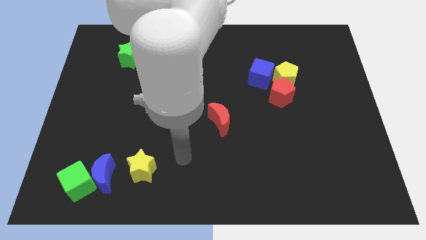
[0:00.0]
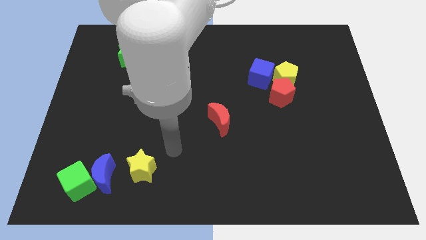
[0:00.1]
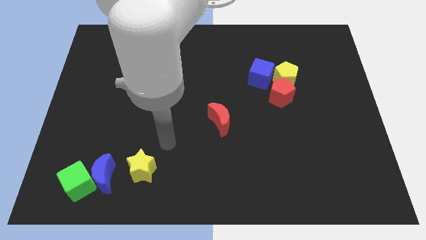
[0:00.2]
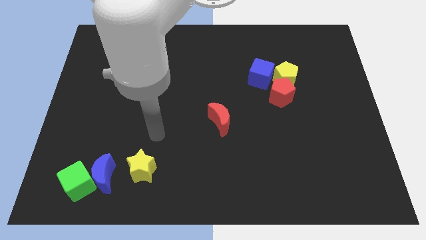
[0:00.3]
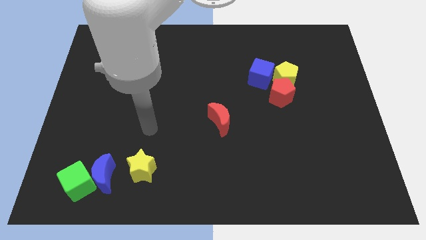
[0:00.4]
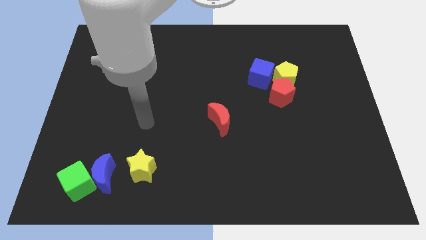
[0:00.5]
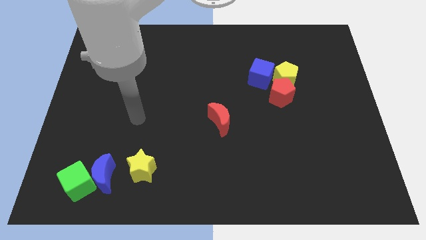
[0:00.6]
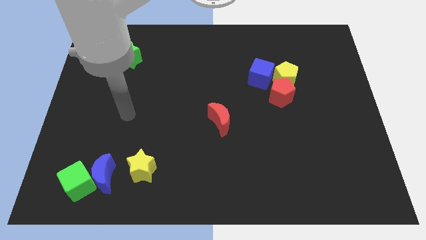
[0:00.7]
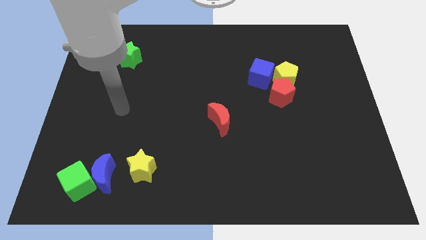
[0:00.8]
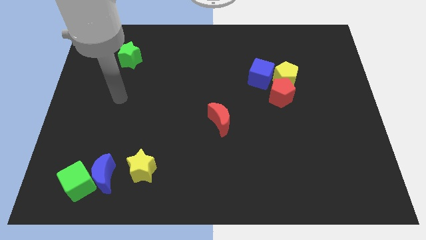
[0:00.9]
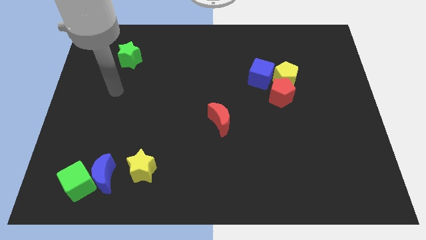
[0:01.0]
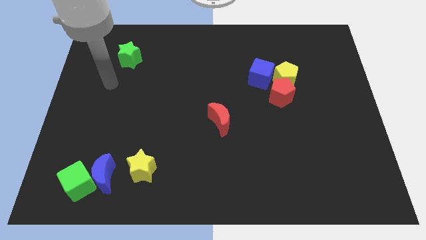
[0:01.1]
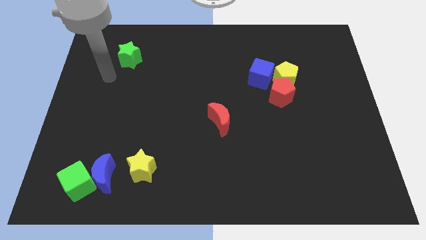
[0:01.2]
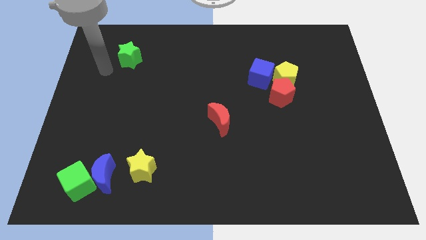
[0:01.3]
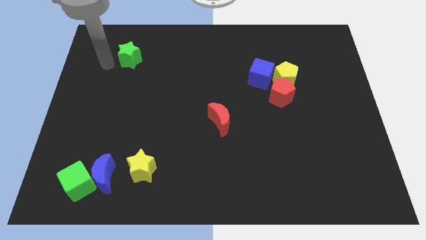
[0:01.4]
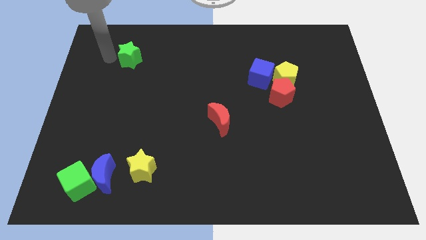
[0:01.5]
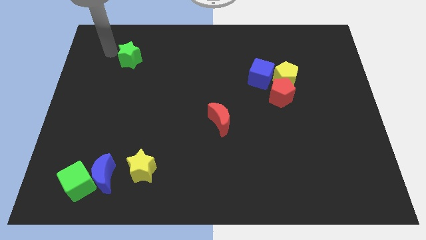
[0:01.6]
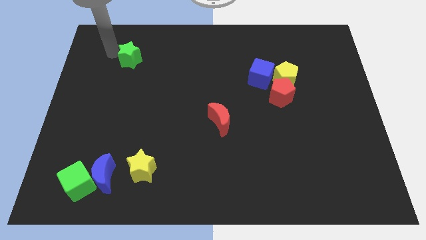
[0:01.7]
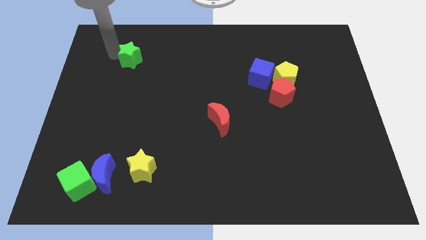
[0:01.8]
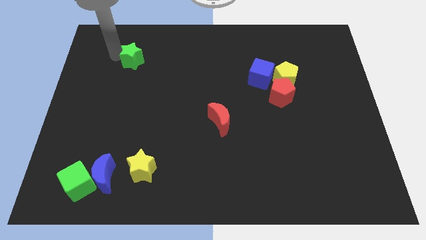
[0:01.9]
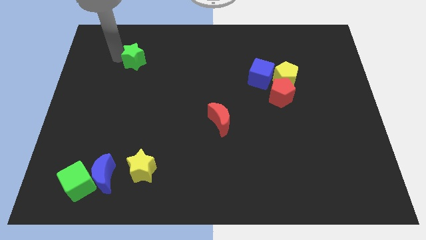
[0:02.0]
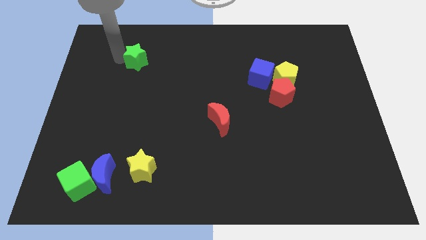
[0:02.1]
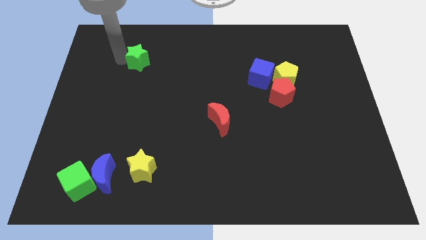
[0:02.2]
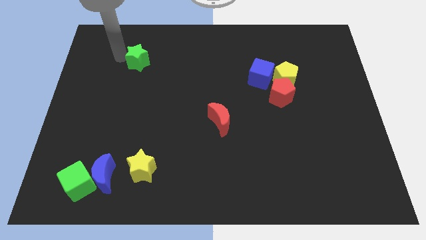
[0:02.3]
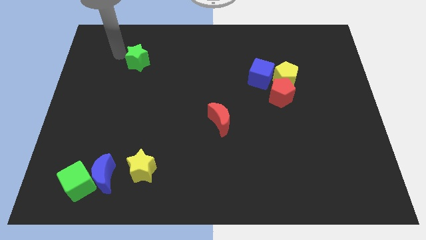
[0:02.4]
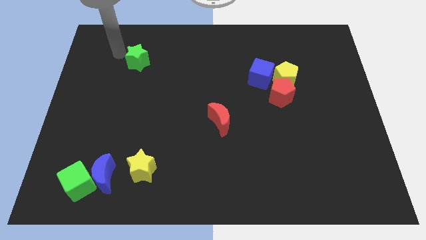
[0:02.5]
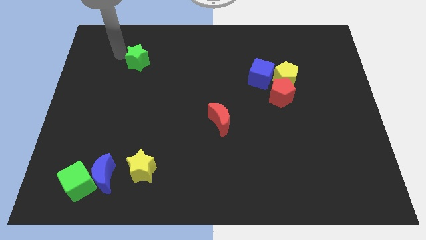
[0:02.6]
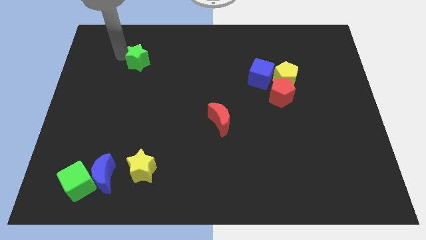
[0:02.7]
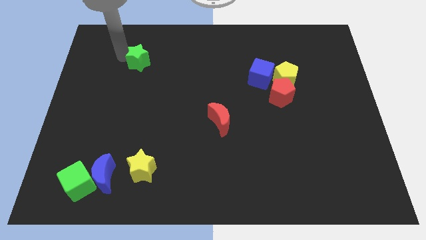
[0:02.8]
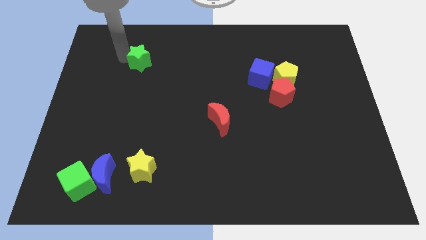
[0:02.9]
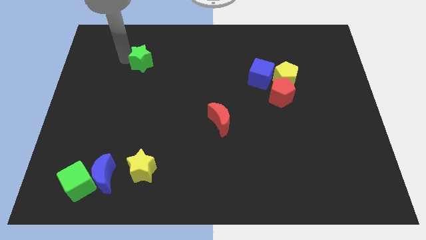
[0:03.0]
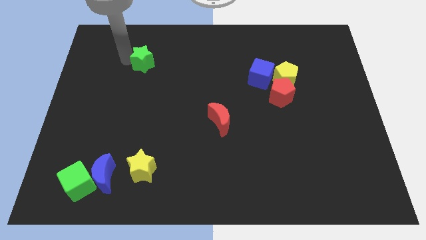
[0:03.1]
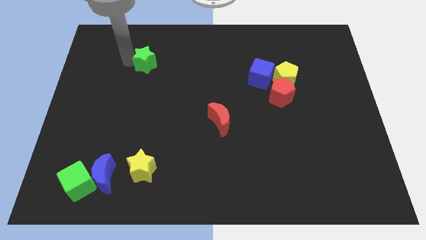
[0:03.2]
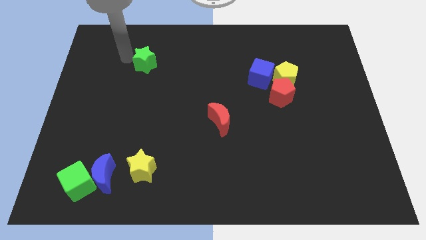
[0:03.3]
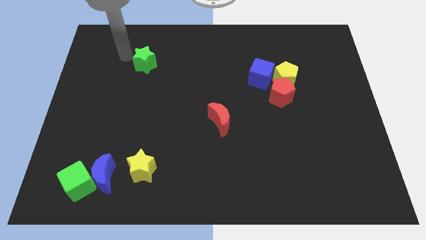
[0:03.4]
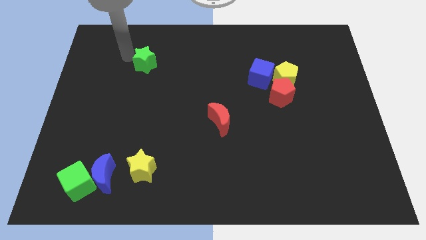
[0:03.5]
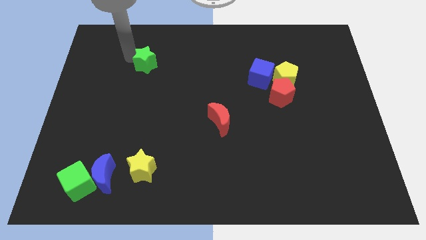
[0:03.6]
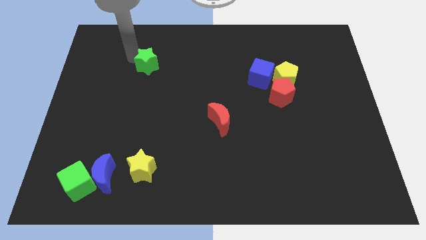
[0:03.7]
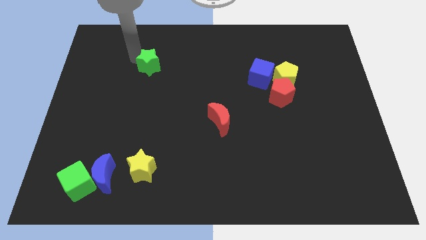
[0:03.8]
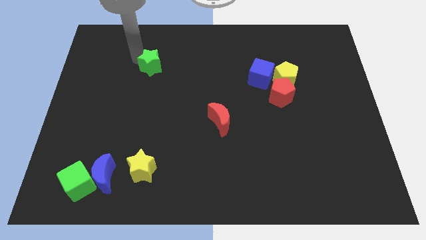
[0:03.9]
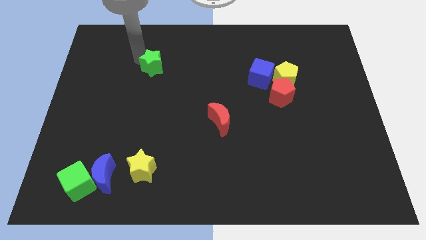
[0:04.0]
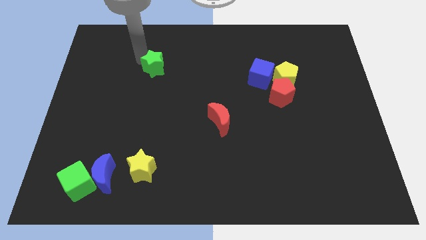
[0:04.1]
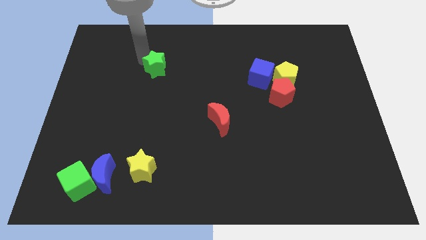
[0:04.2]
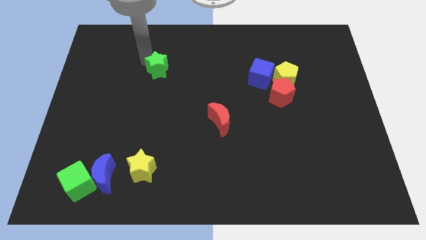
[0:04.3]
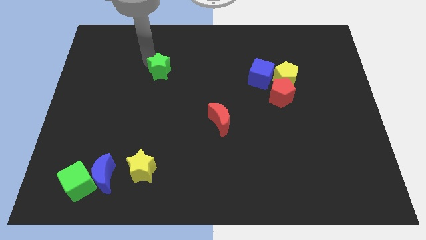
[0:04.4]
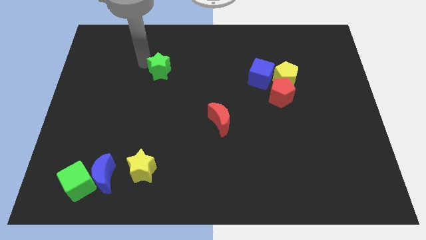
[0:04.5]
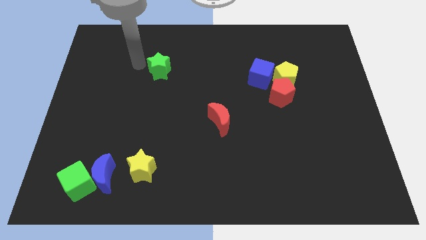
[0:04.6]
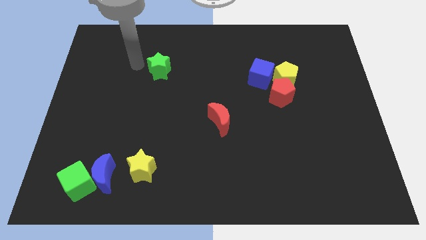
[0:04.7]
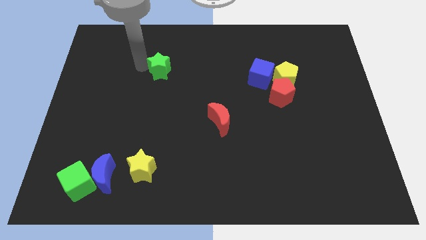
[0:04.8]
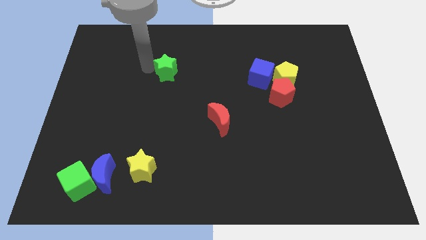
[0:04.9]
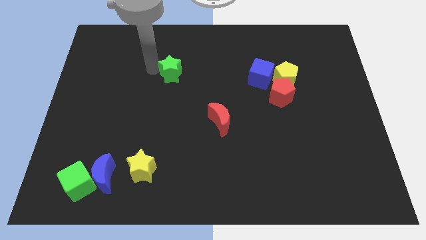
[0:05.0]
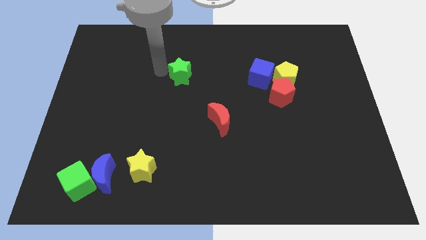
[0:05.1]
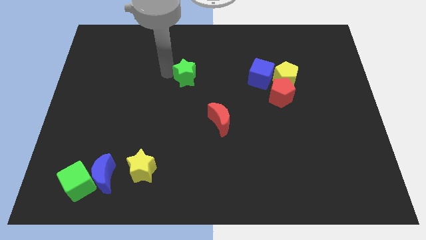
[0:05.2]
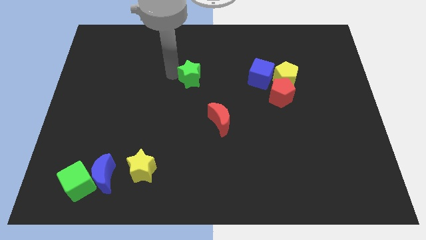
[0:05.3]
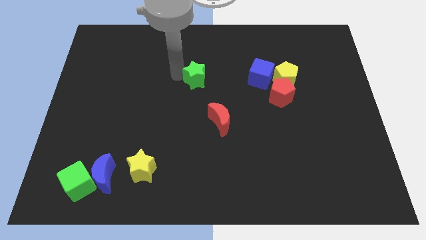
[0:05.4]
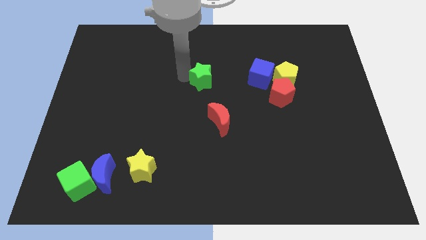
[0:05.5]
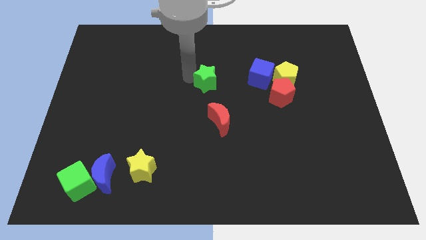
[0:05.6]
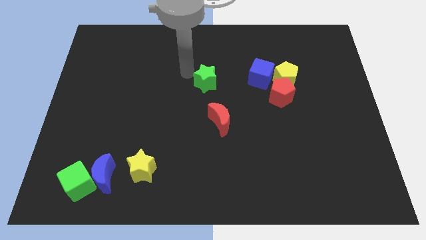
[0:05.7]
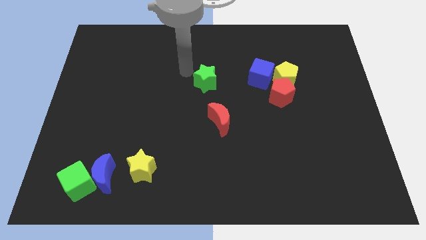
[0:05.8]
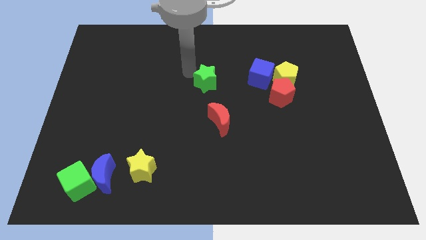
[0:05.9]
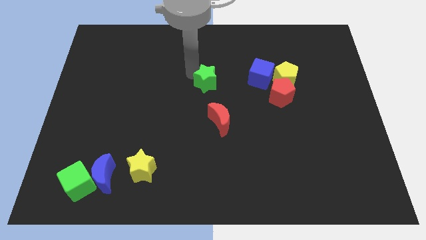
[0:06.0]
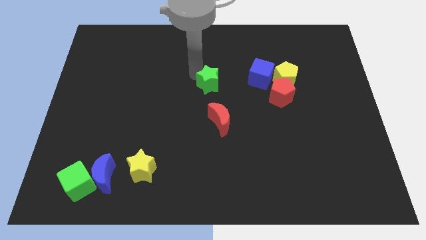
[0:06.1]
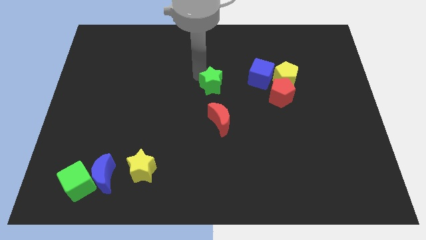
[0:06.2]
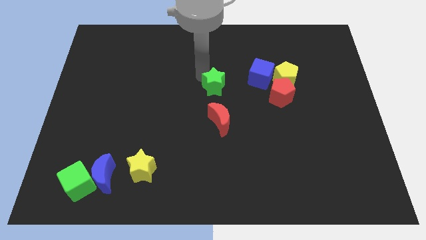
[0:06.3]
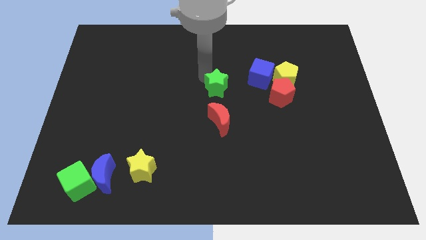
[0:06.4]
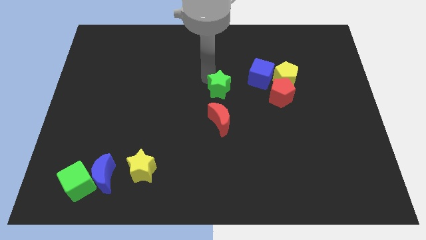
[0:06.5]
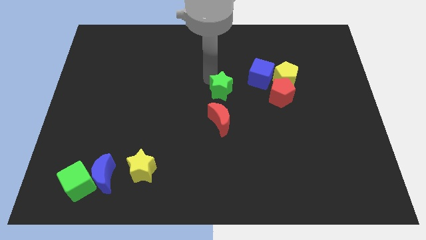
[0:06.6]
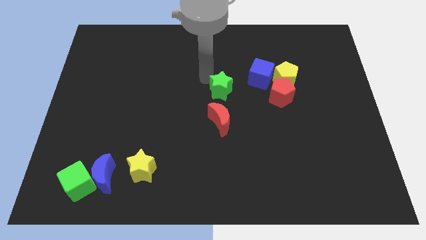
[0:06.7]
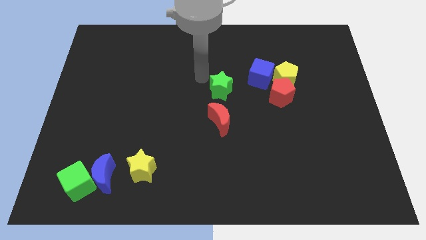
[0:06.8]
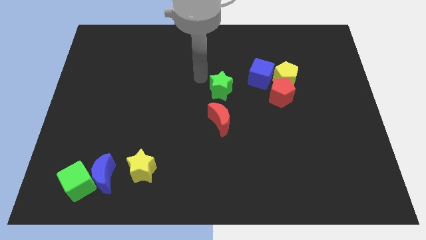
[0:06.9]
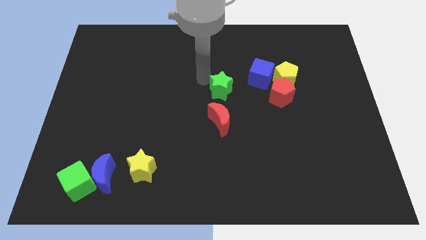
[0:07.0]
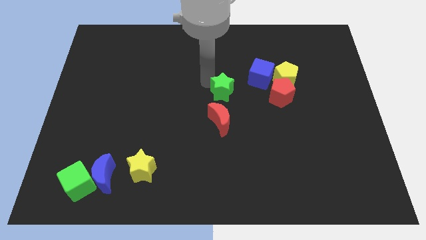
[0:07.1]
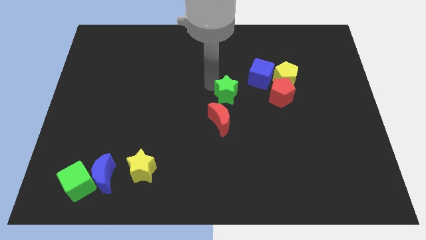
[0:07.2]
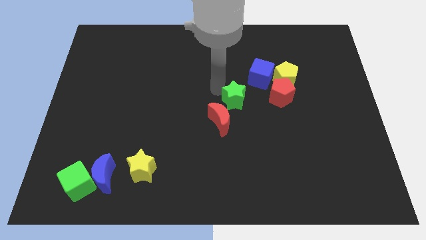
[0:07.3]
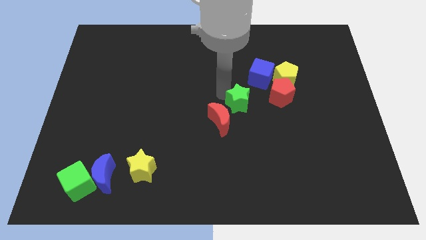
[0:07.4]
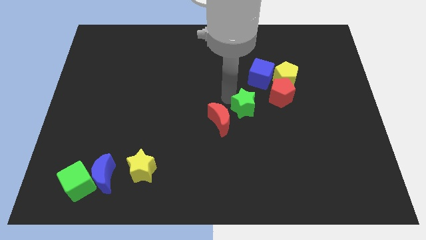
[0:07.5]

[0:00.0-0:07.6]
push the green star to the bottom left side of the red pentagon

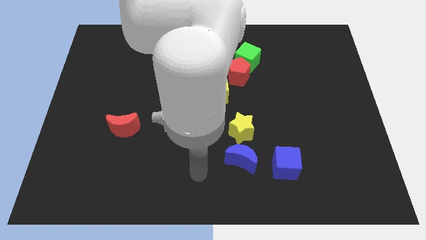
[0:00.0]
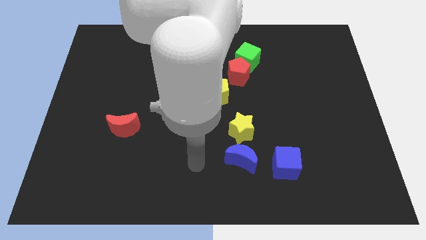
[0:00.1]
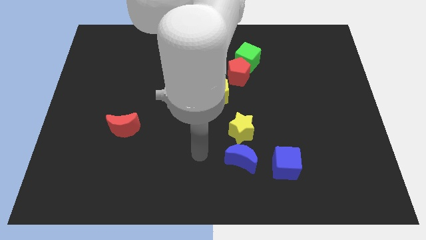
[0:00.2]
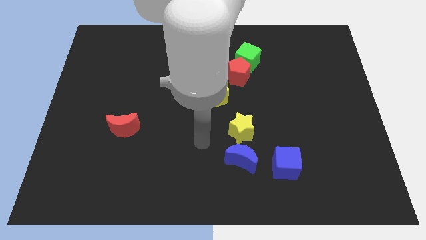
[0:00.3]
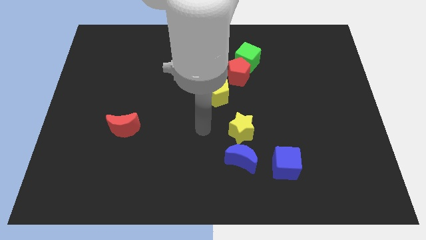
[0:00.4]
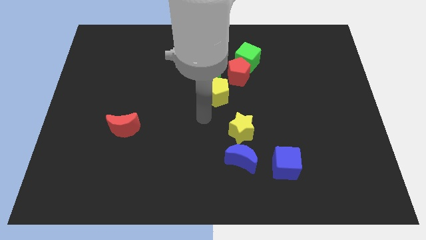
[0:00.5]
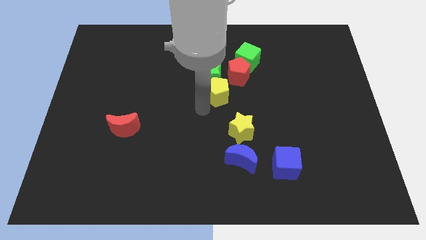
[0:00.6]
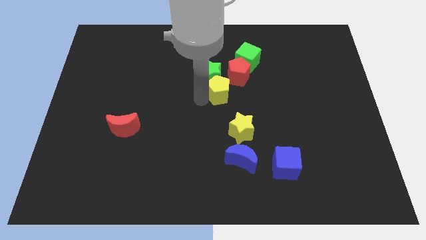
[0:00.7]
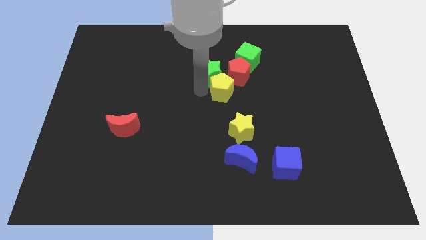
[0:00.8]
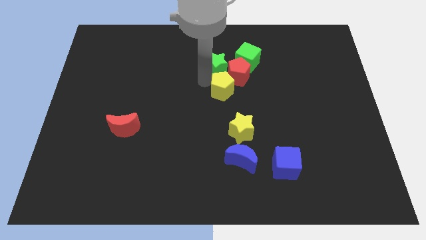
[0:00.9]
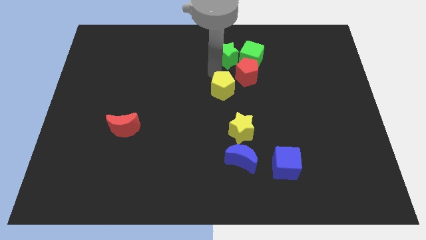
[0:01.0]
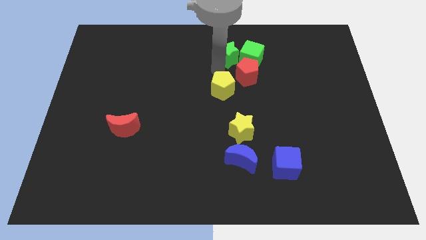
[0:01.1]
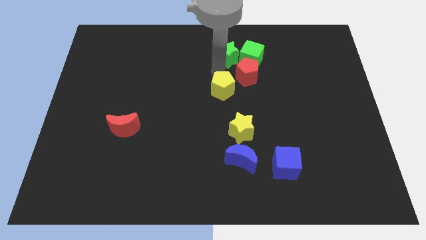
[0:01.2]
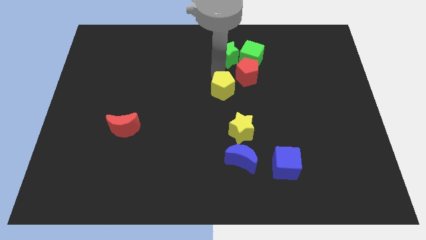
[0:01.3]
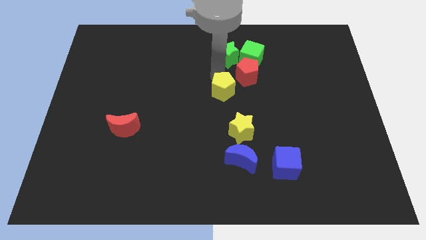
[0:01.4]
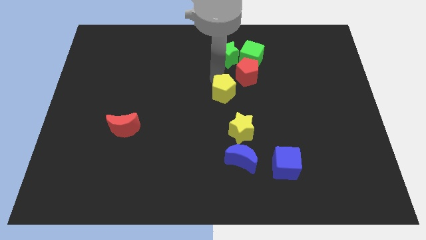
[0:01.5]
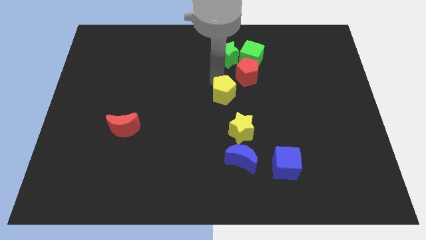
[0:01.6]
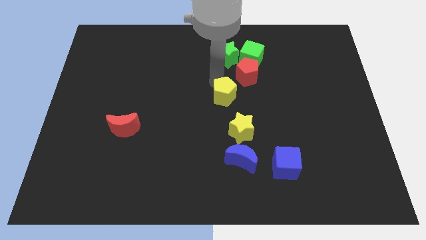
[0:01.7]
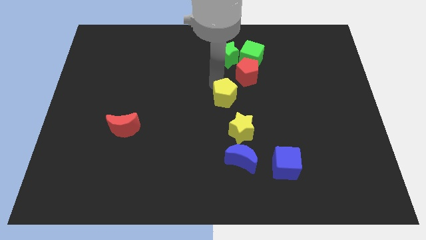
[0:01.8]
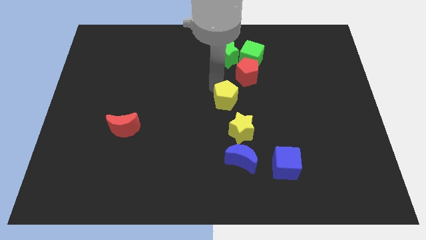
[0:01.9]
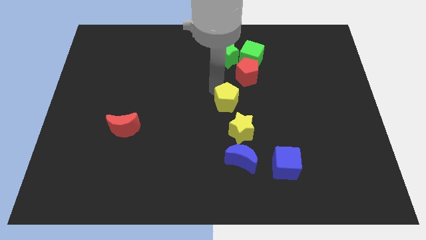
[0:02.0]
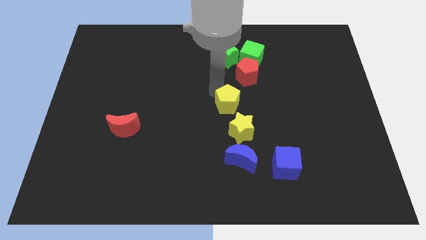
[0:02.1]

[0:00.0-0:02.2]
put the yellow pentagon to the top of the blue moon
